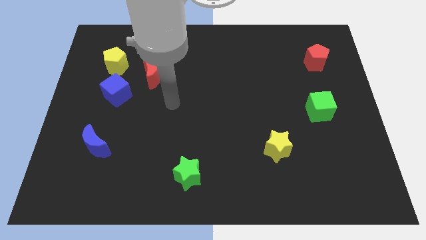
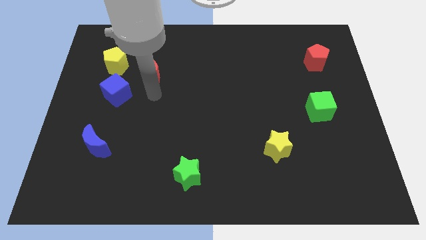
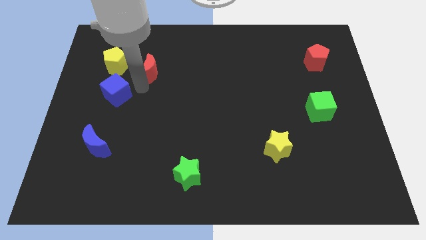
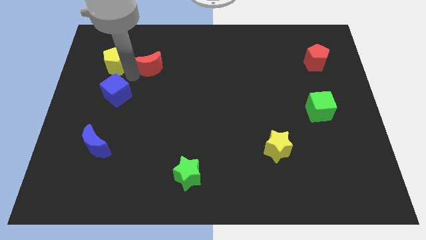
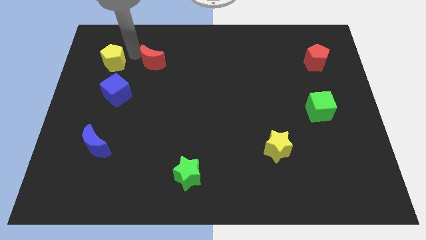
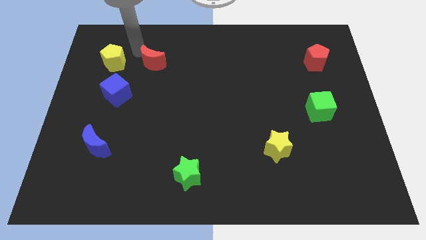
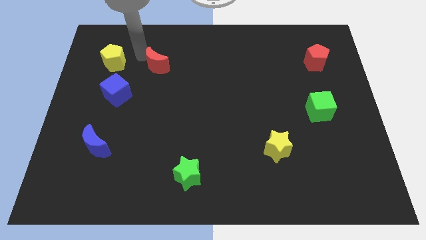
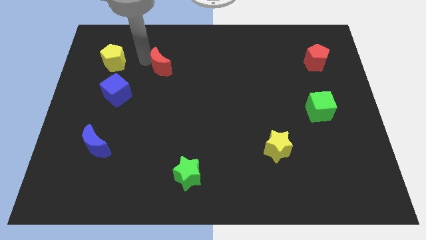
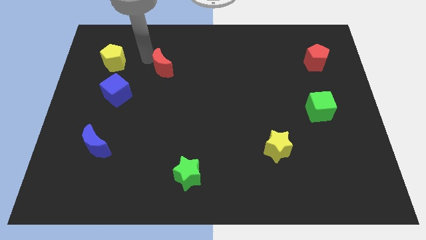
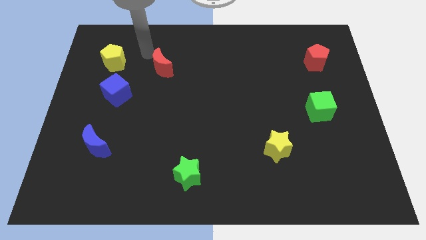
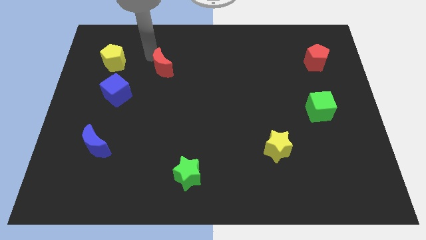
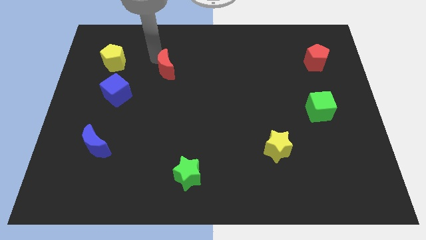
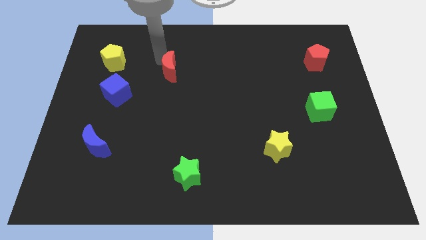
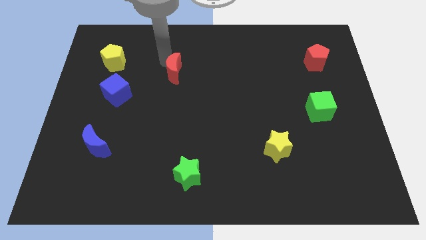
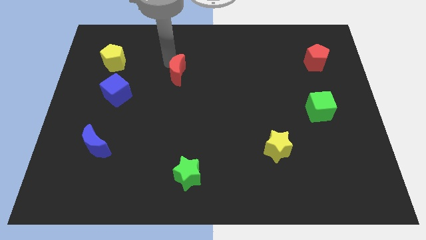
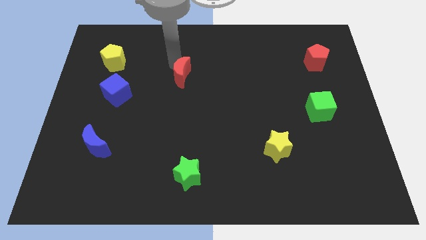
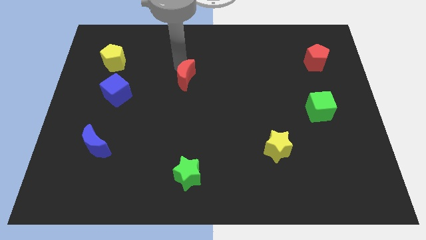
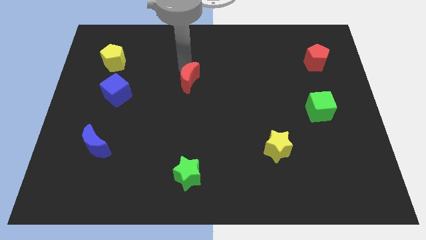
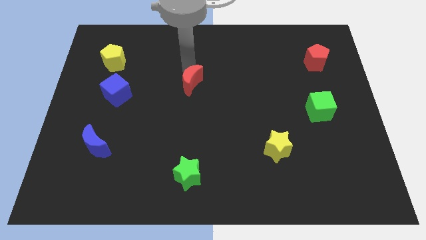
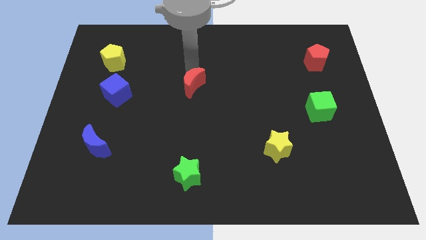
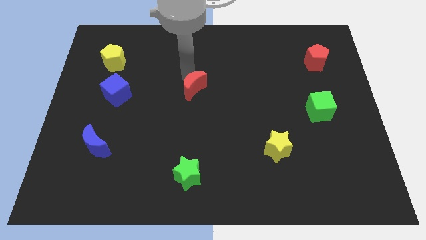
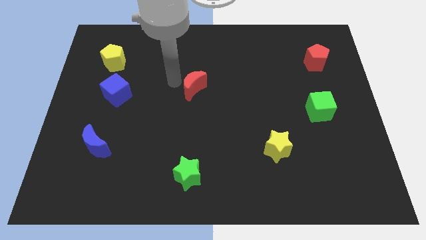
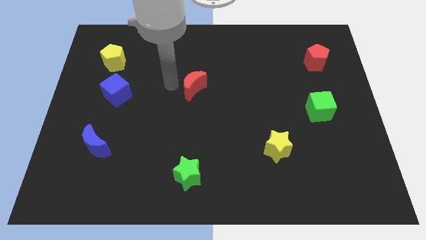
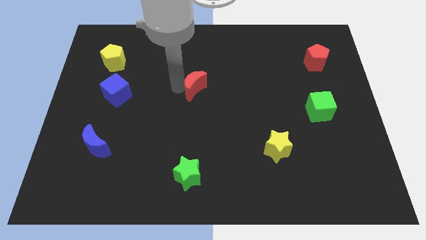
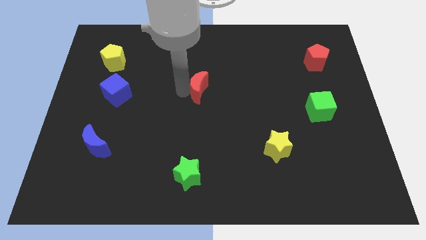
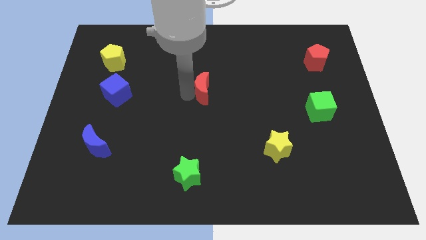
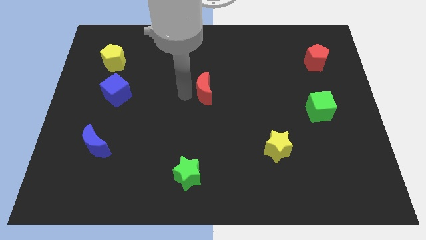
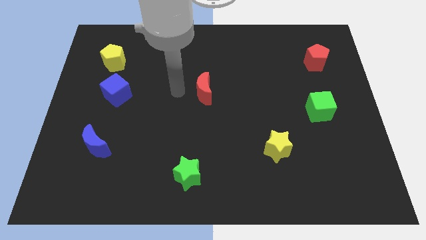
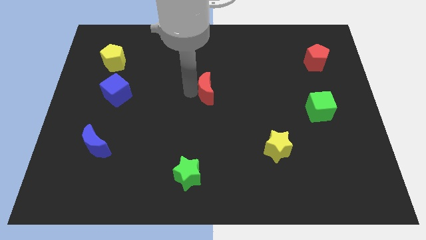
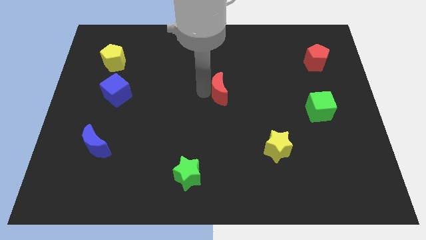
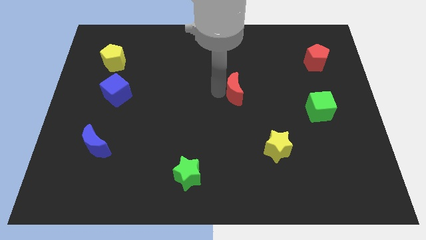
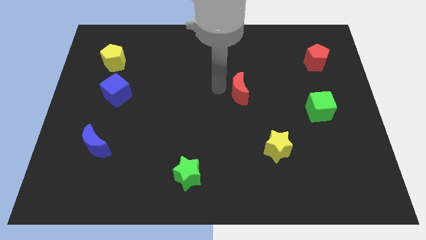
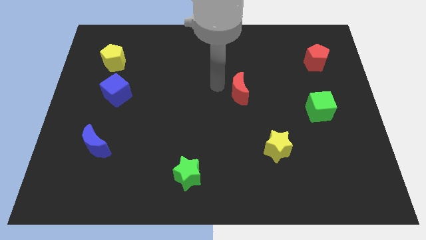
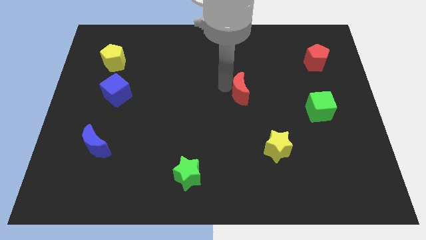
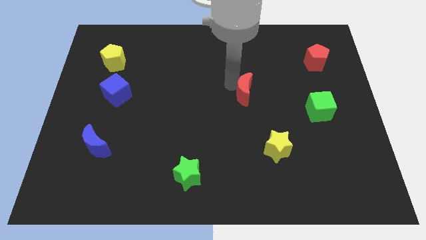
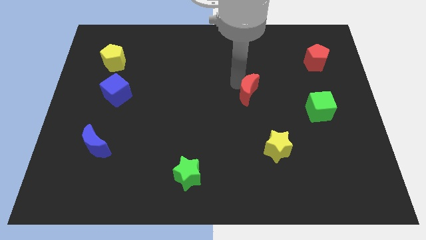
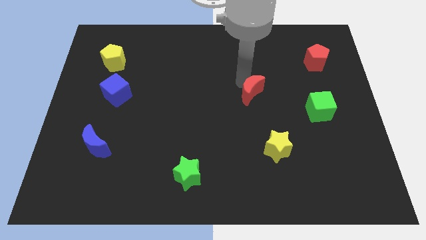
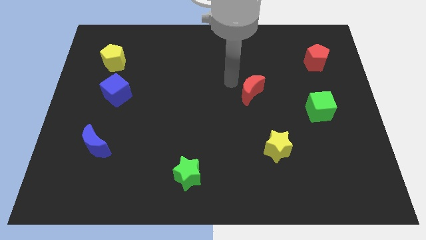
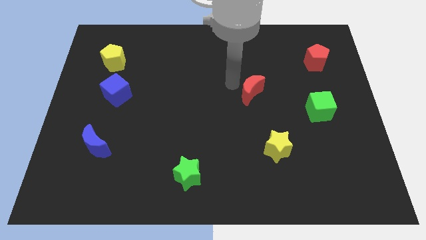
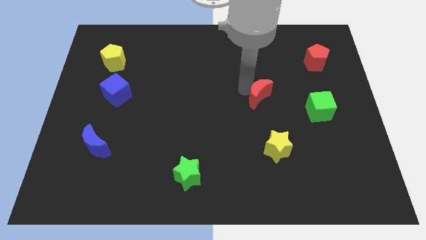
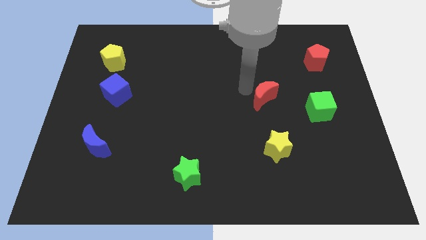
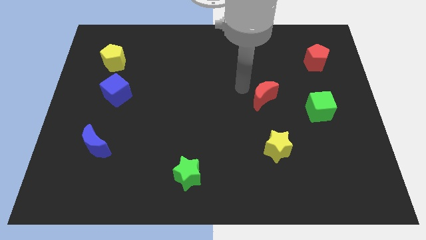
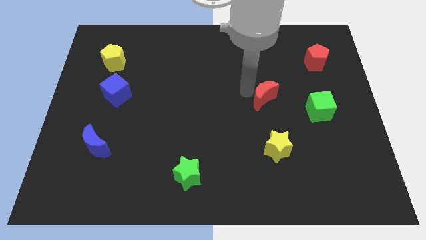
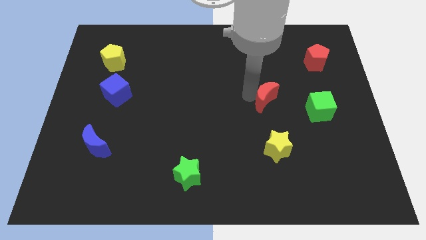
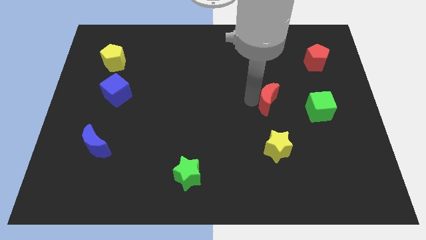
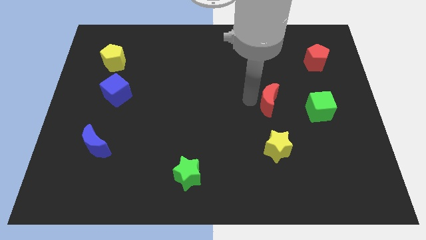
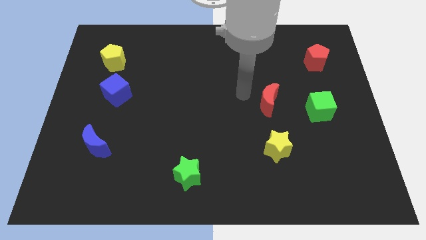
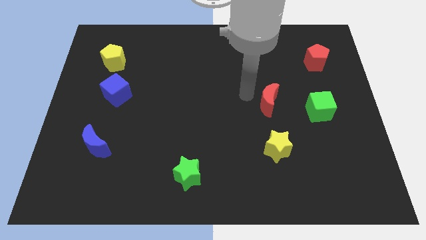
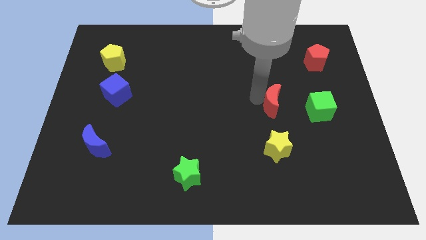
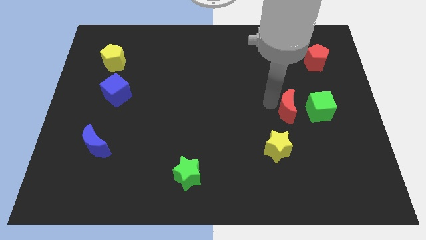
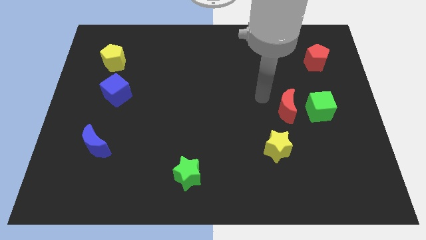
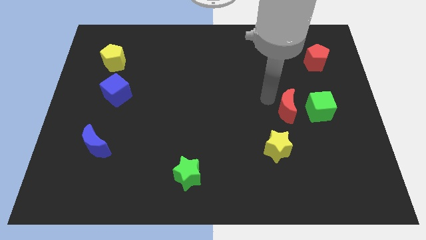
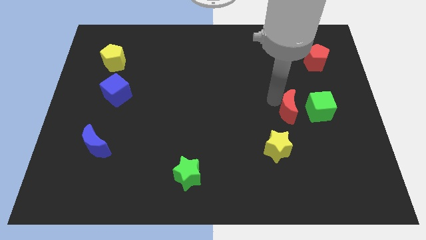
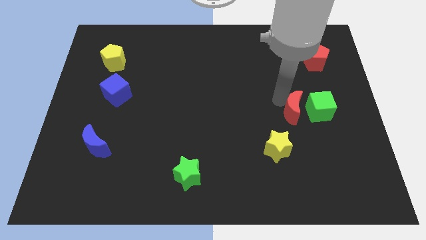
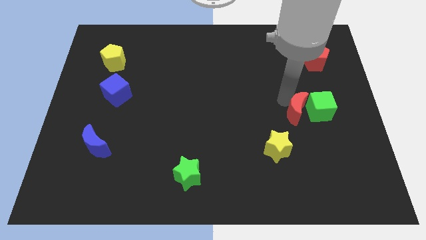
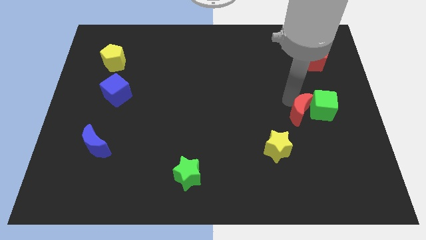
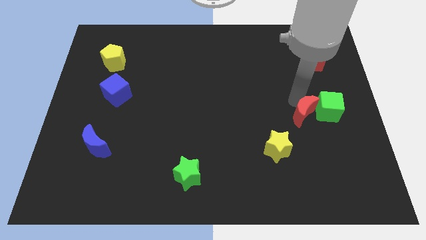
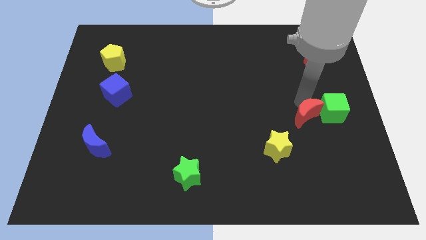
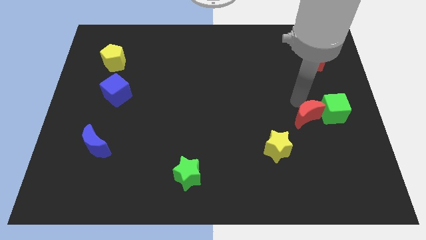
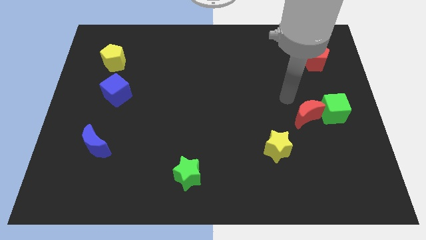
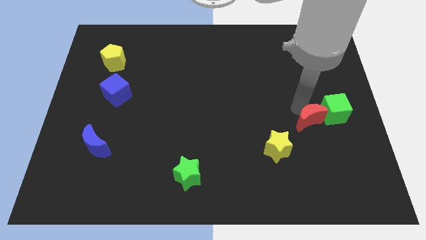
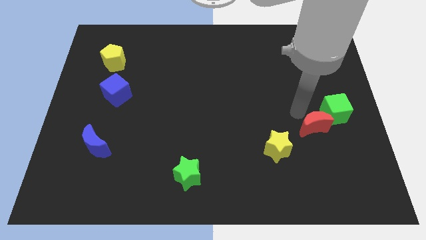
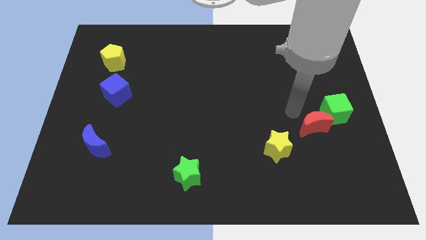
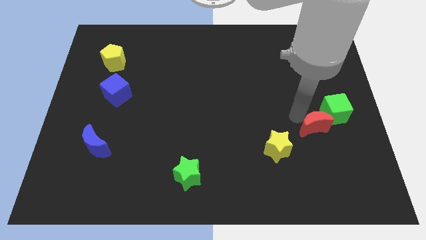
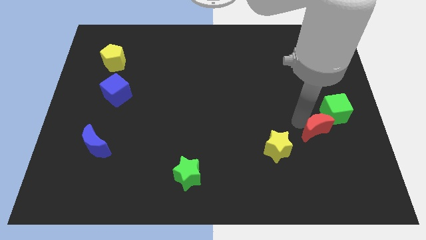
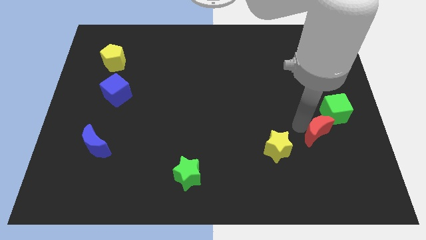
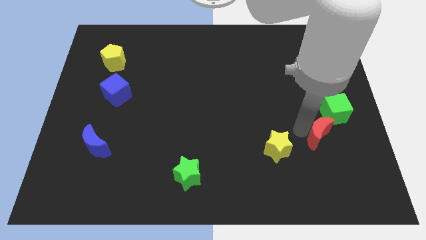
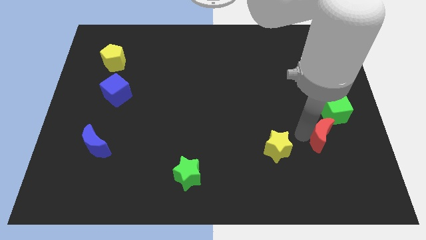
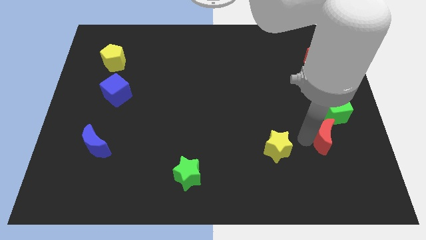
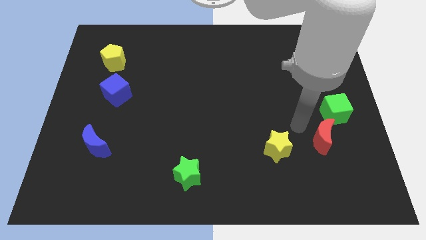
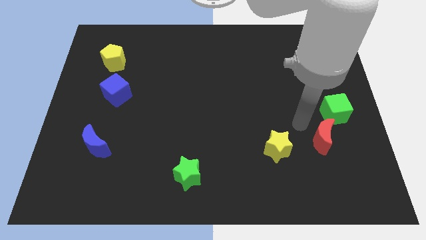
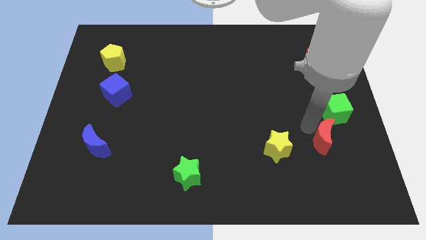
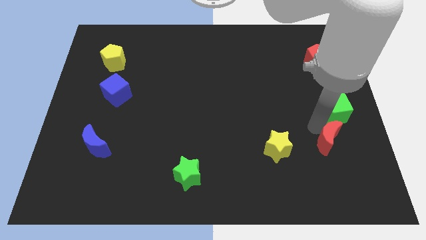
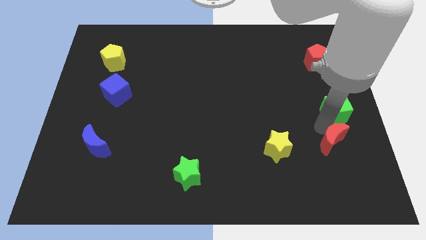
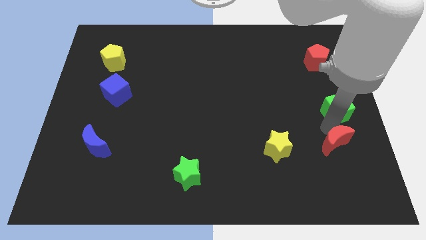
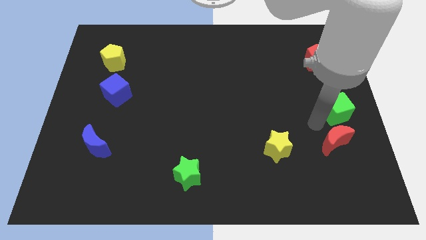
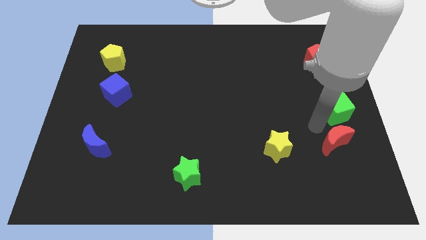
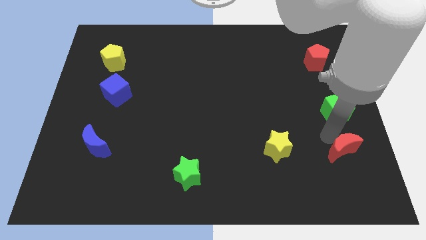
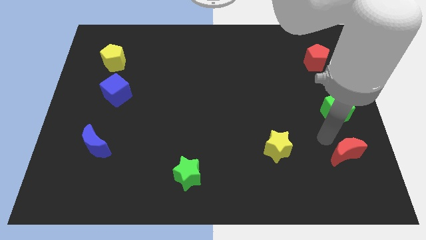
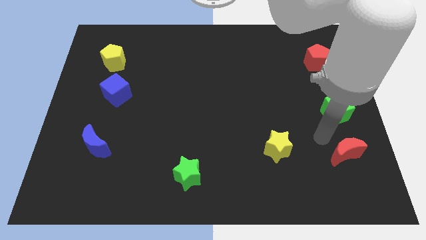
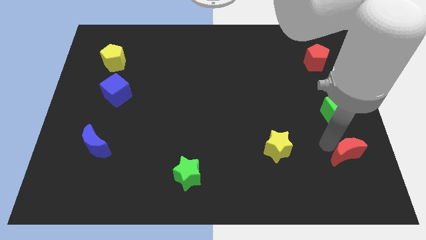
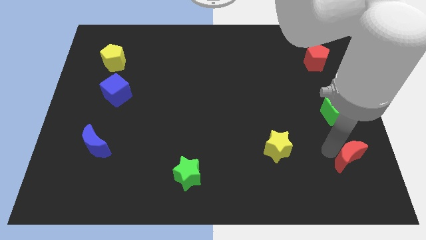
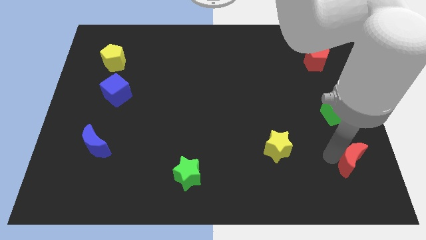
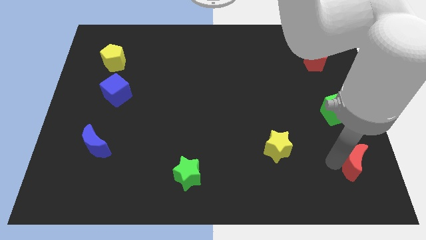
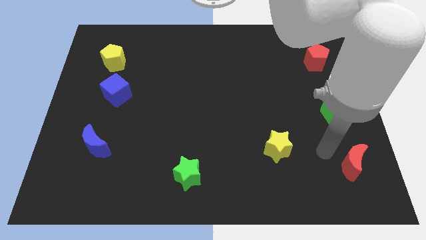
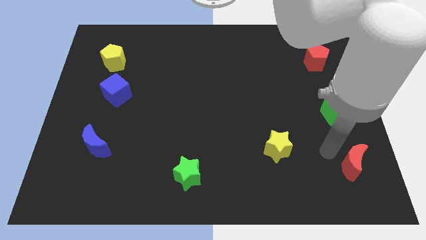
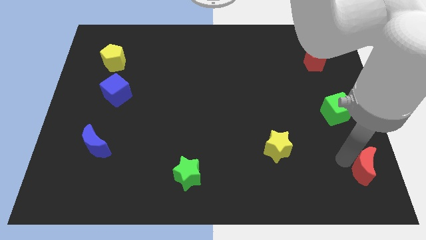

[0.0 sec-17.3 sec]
put the red moon to the bottom right of the board
